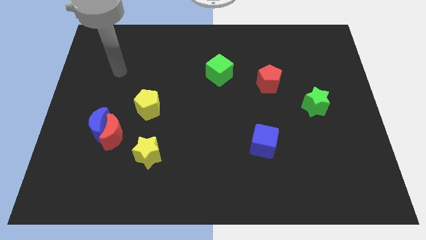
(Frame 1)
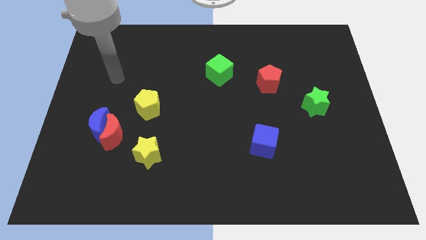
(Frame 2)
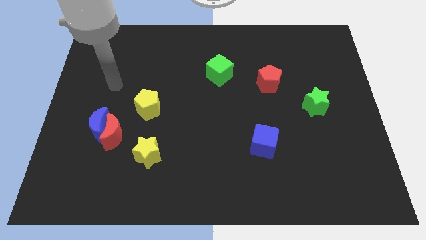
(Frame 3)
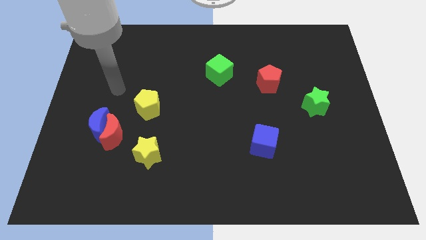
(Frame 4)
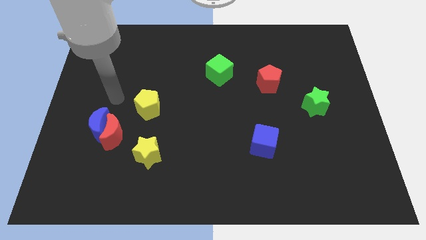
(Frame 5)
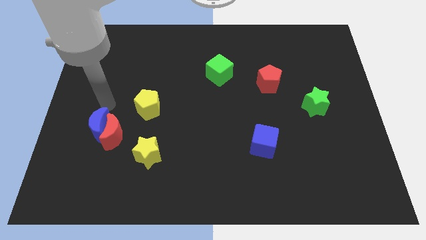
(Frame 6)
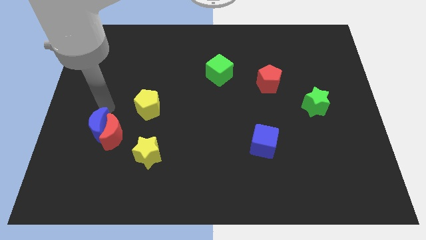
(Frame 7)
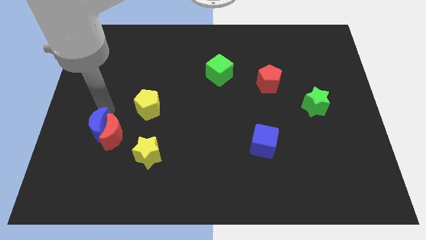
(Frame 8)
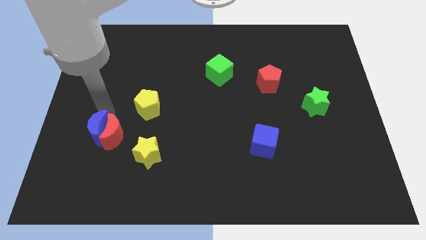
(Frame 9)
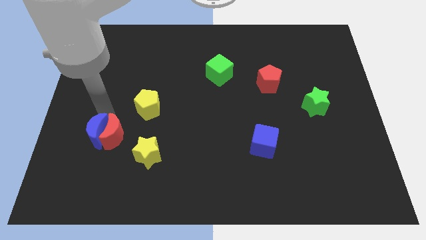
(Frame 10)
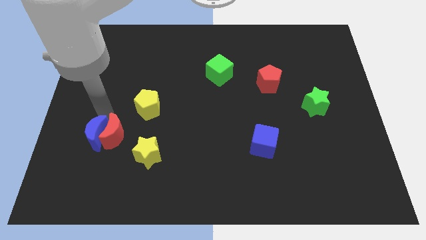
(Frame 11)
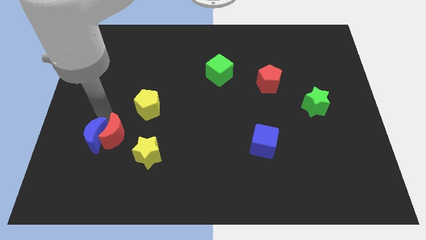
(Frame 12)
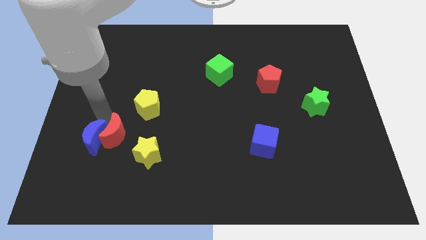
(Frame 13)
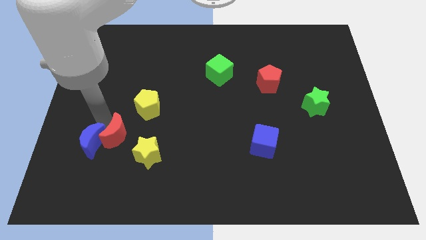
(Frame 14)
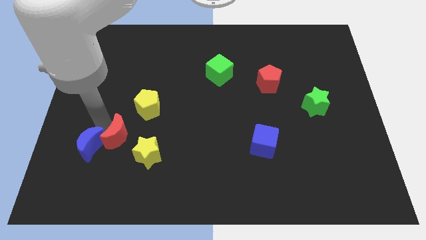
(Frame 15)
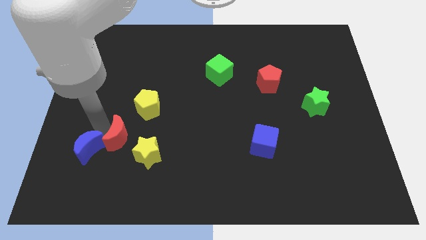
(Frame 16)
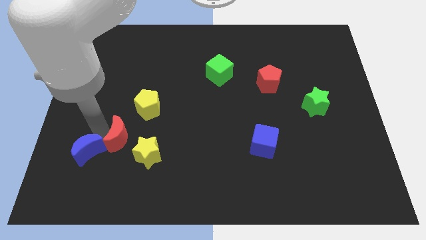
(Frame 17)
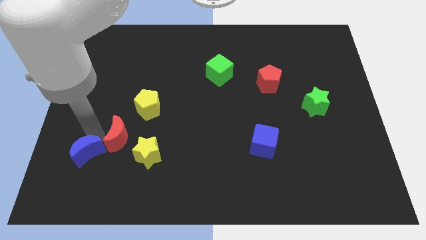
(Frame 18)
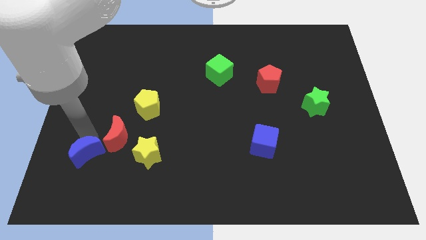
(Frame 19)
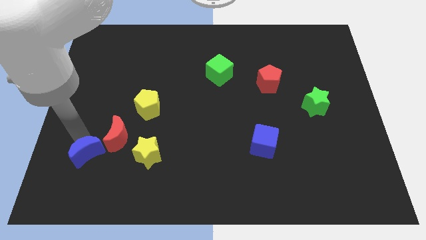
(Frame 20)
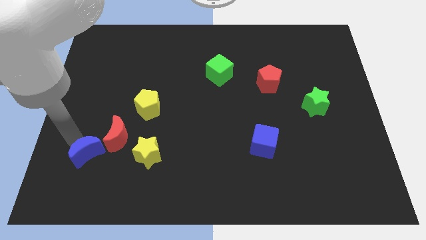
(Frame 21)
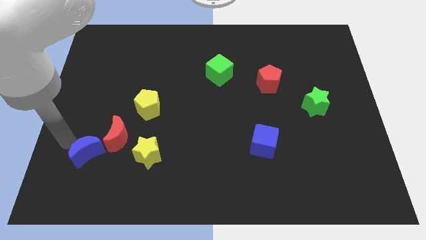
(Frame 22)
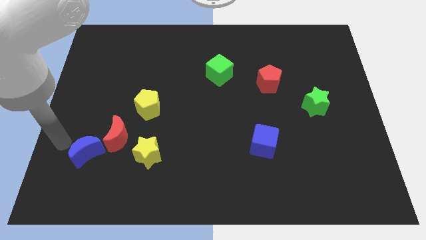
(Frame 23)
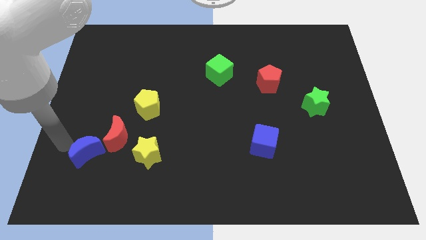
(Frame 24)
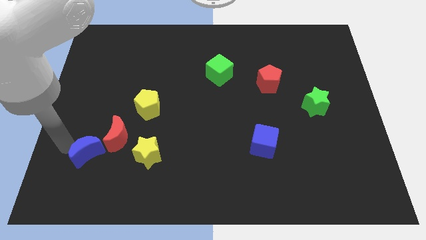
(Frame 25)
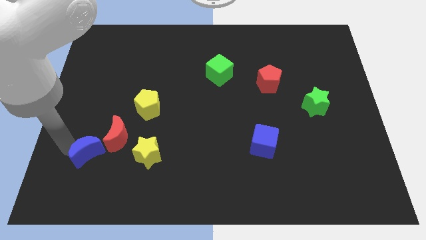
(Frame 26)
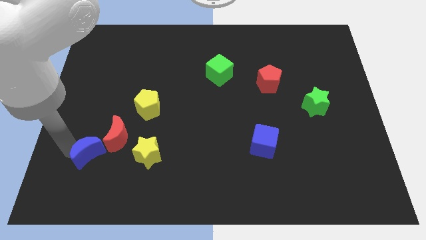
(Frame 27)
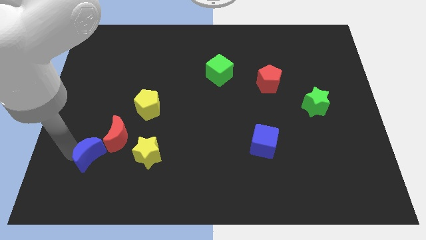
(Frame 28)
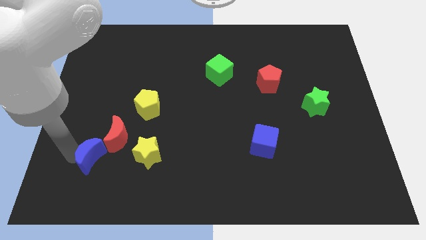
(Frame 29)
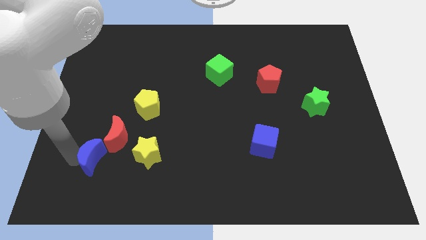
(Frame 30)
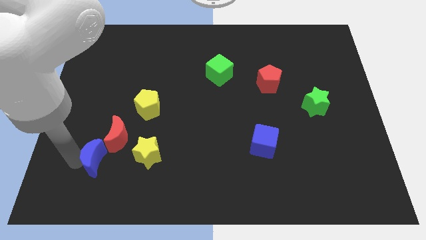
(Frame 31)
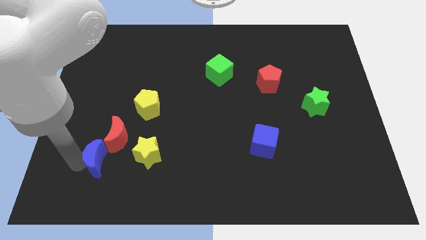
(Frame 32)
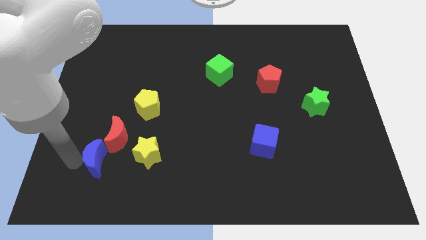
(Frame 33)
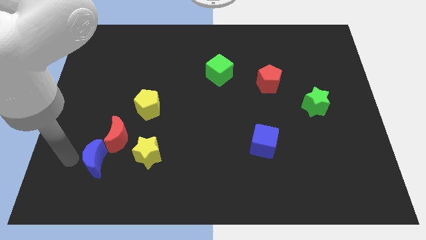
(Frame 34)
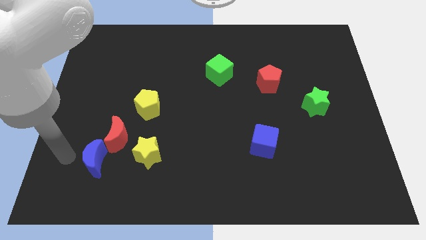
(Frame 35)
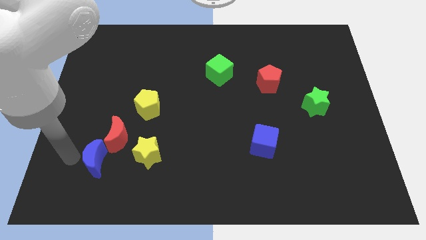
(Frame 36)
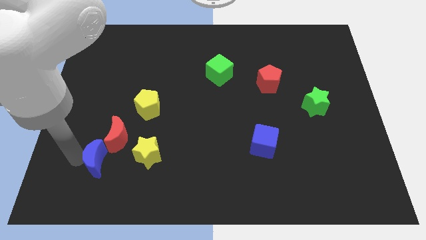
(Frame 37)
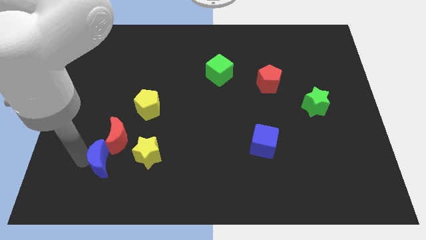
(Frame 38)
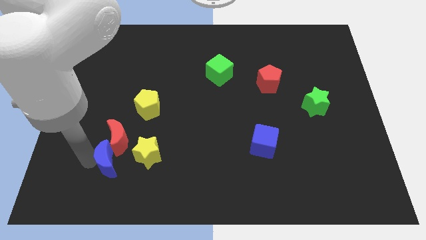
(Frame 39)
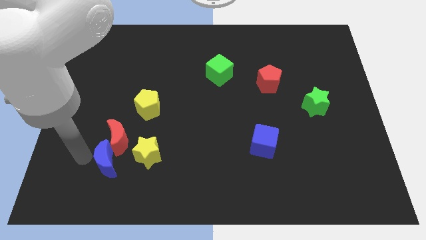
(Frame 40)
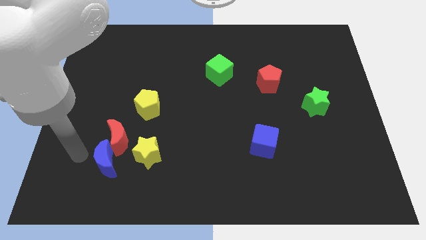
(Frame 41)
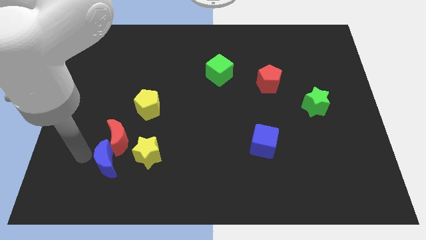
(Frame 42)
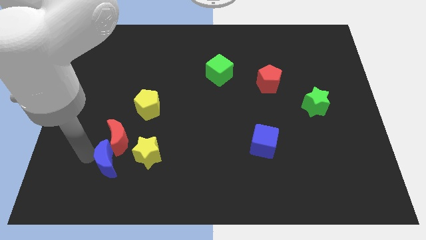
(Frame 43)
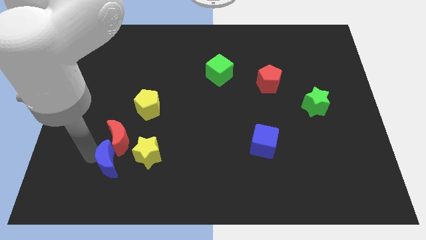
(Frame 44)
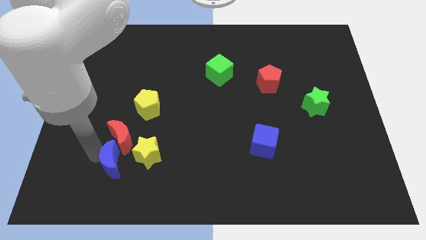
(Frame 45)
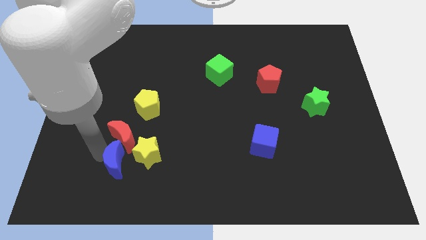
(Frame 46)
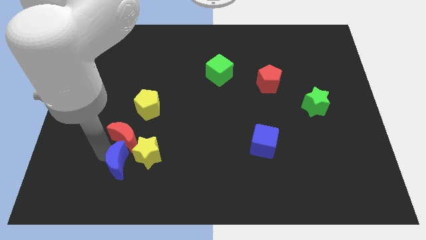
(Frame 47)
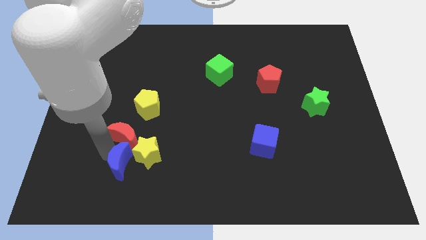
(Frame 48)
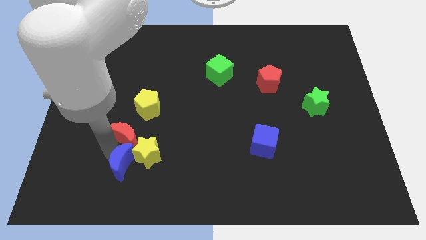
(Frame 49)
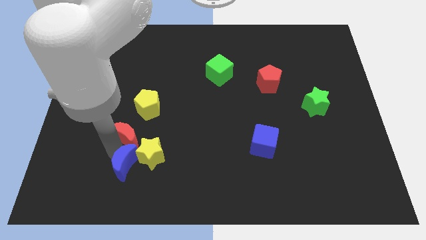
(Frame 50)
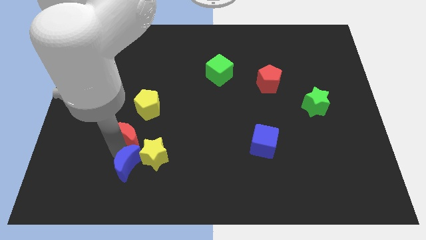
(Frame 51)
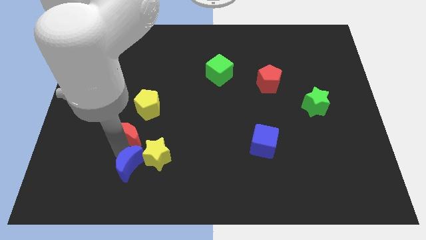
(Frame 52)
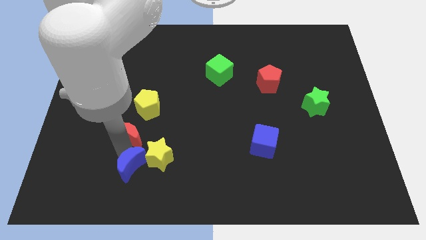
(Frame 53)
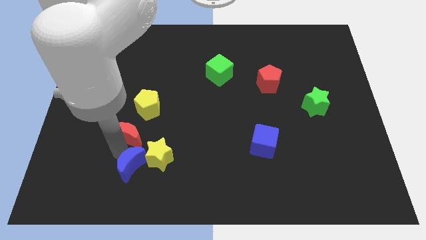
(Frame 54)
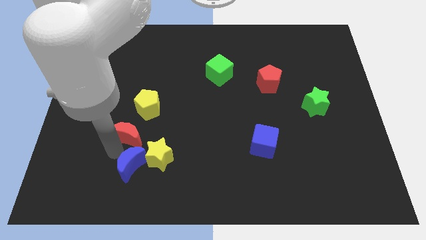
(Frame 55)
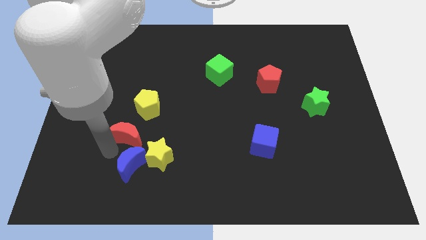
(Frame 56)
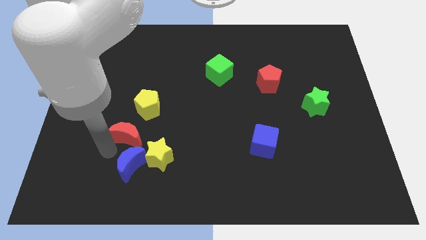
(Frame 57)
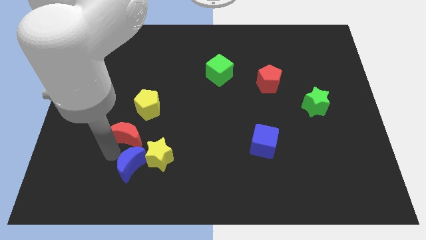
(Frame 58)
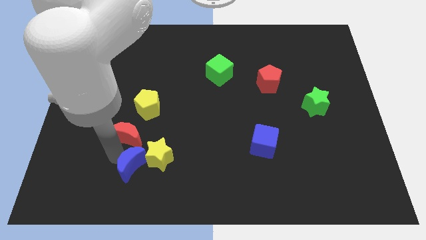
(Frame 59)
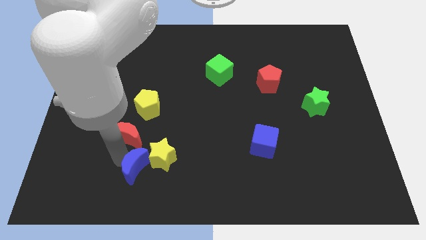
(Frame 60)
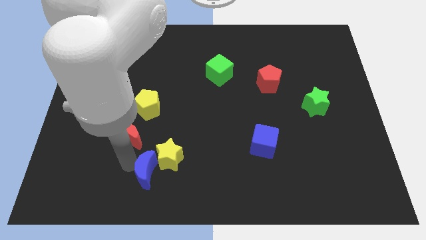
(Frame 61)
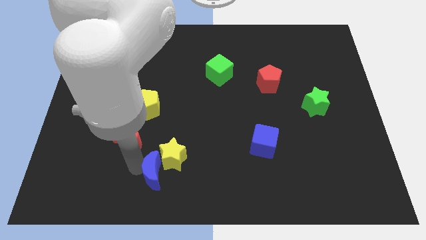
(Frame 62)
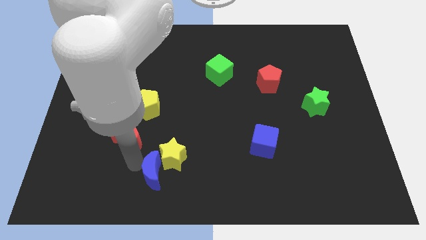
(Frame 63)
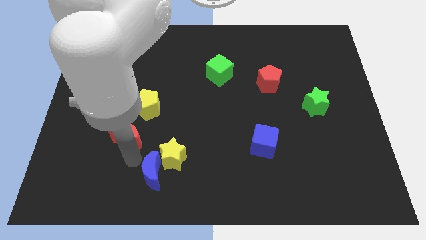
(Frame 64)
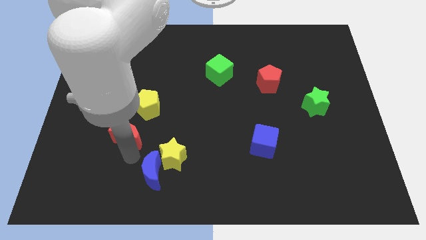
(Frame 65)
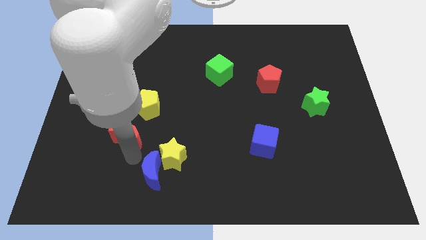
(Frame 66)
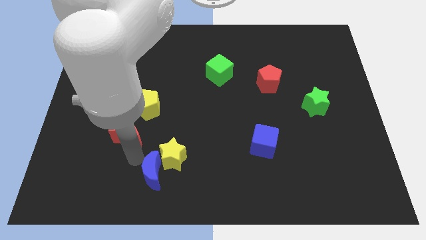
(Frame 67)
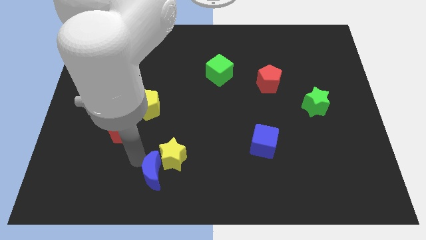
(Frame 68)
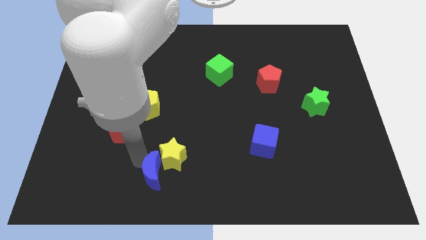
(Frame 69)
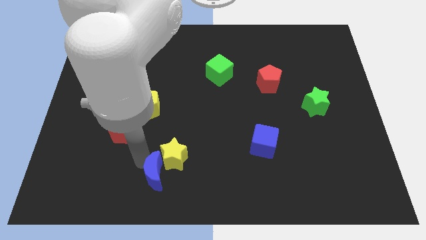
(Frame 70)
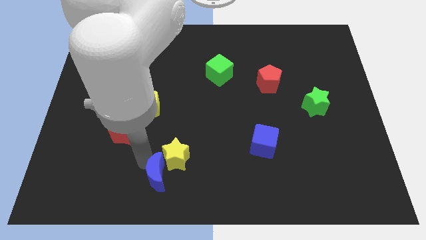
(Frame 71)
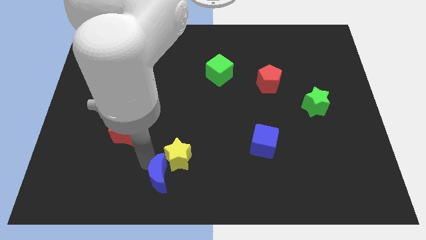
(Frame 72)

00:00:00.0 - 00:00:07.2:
push the blue moon to the bottom side
